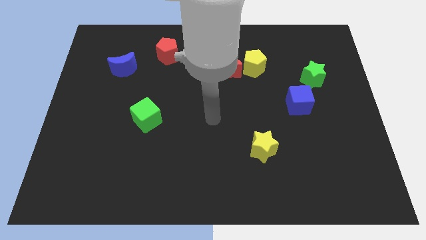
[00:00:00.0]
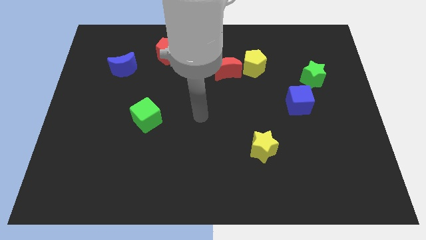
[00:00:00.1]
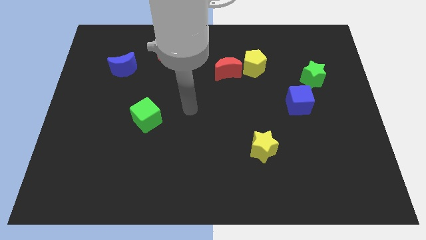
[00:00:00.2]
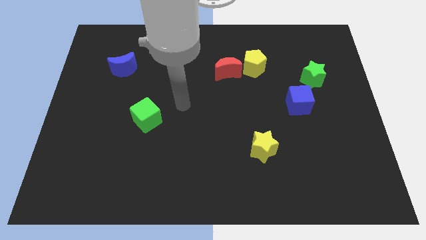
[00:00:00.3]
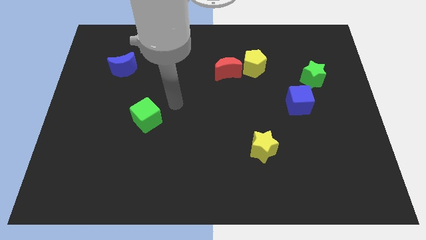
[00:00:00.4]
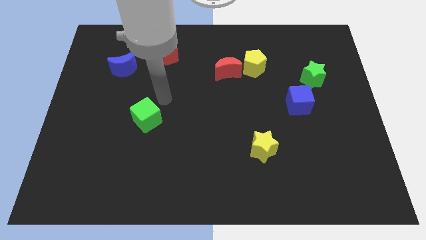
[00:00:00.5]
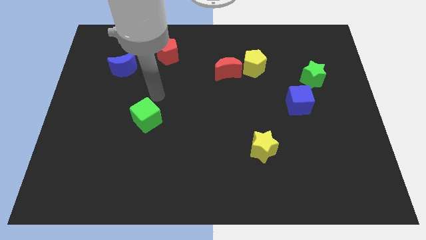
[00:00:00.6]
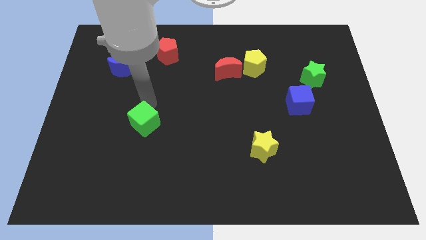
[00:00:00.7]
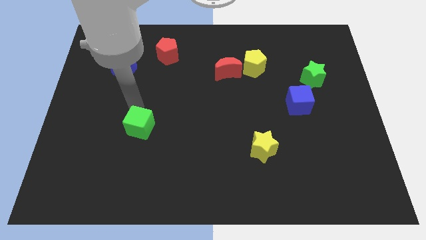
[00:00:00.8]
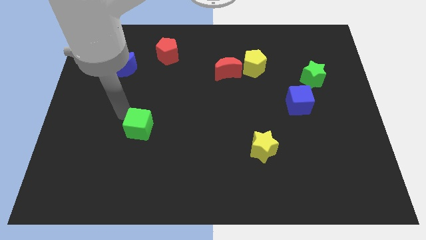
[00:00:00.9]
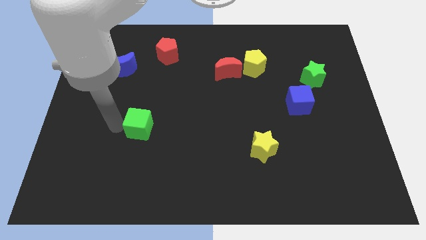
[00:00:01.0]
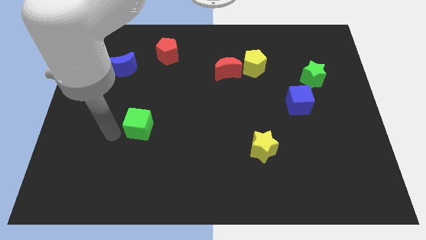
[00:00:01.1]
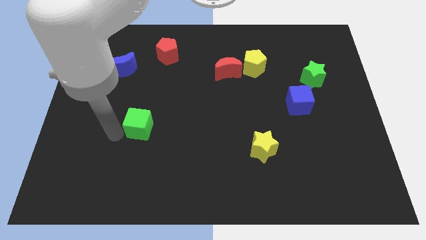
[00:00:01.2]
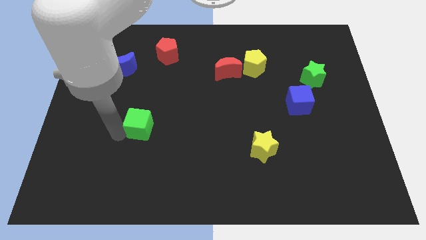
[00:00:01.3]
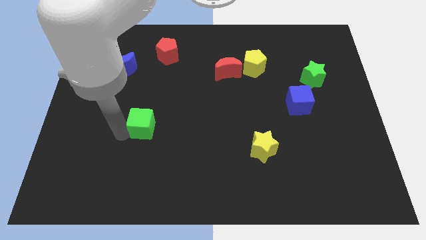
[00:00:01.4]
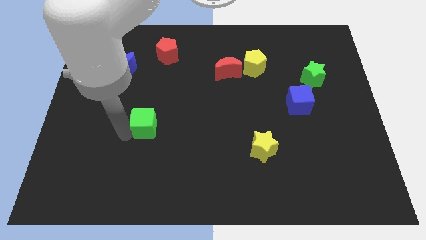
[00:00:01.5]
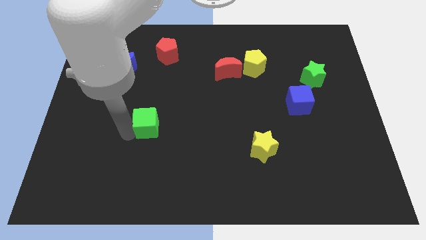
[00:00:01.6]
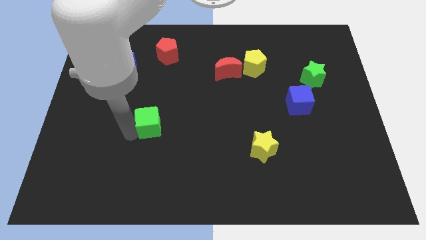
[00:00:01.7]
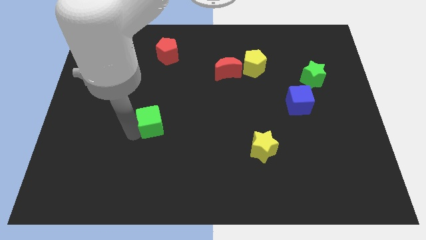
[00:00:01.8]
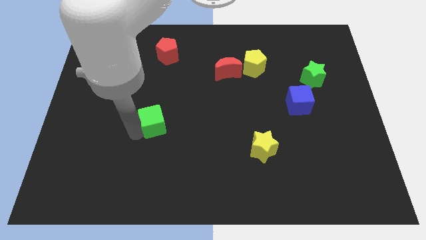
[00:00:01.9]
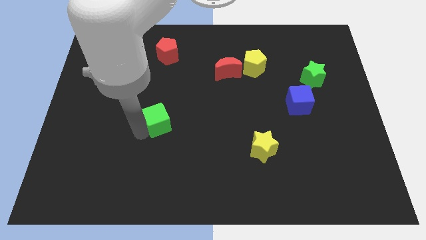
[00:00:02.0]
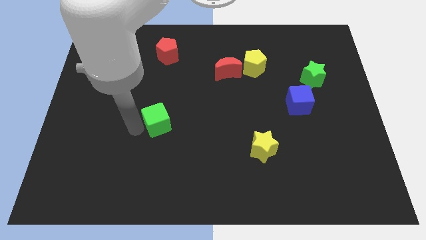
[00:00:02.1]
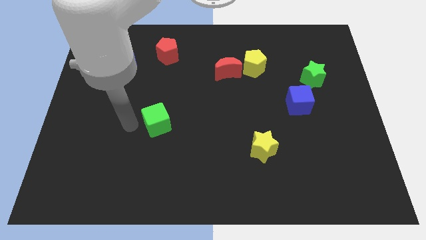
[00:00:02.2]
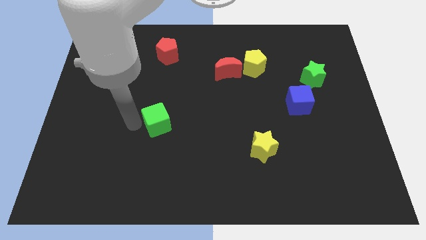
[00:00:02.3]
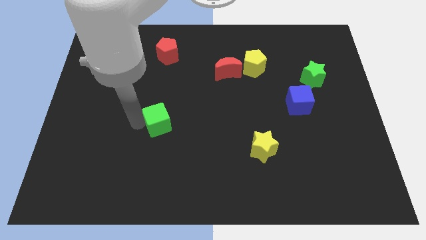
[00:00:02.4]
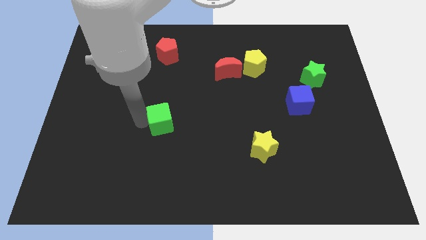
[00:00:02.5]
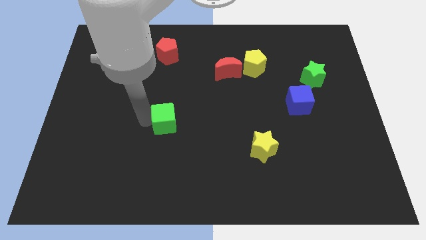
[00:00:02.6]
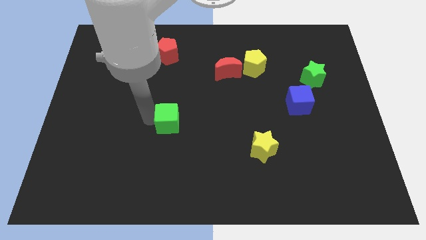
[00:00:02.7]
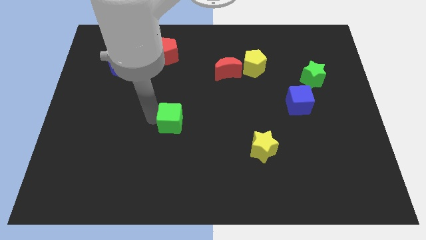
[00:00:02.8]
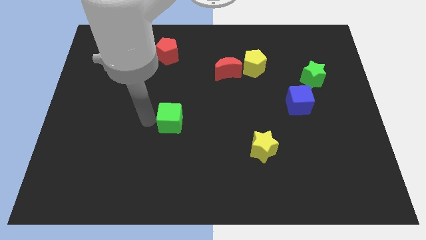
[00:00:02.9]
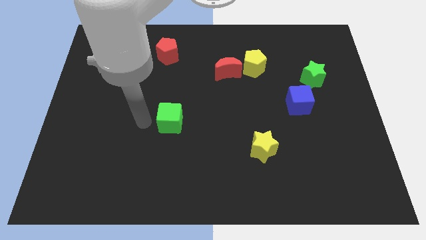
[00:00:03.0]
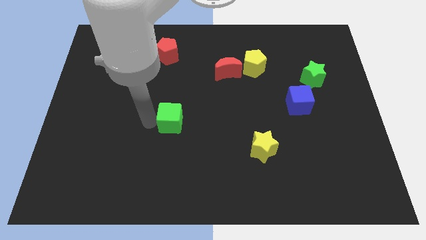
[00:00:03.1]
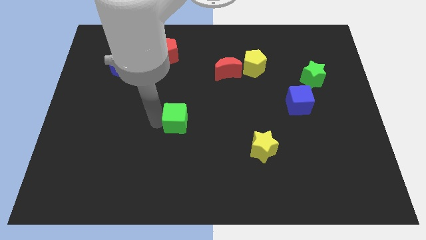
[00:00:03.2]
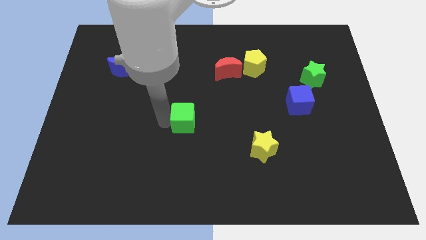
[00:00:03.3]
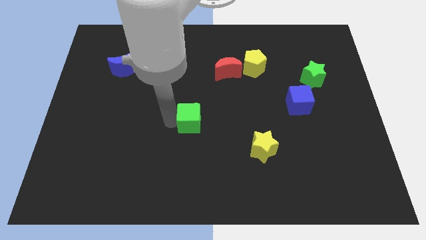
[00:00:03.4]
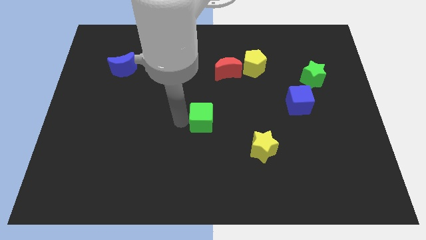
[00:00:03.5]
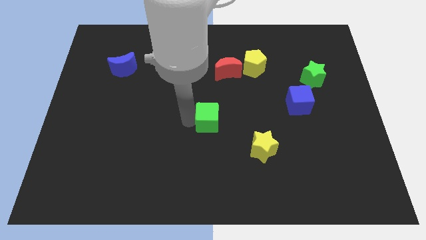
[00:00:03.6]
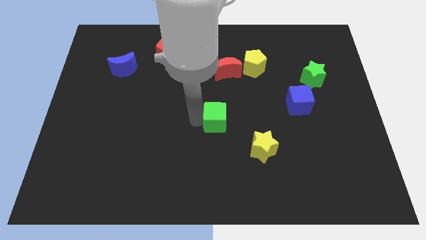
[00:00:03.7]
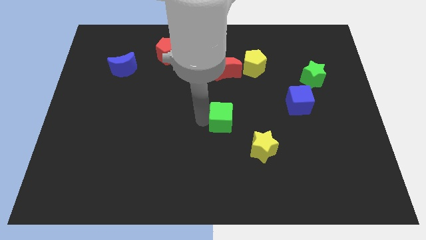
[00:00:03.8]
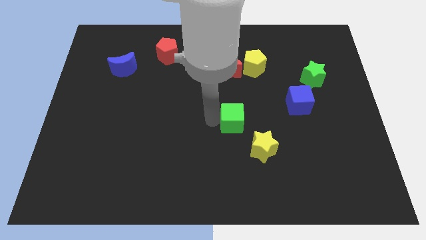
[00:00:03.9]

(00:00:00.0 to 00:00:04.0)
move the green cube right

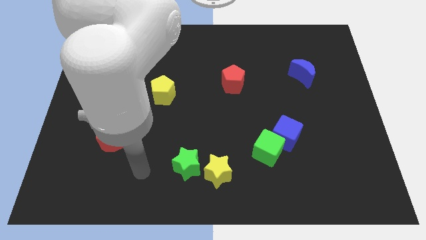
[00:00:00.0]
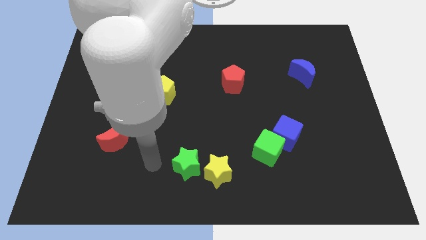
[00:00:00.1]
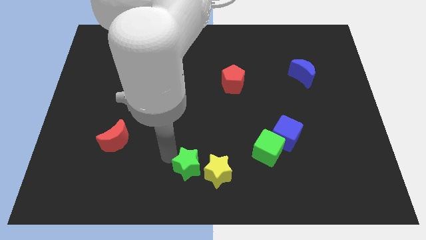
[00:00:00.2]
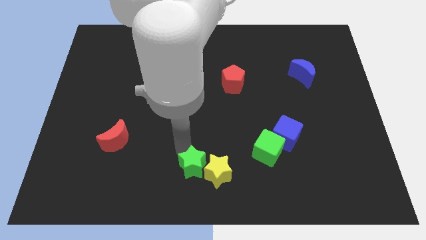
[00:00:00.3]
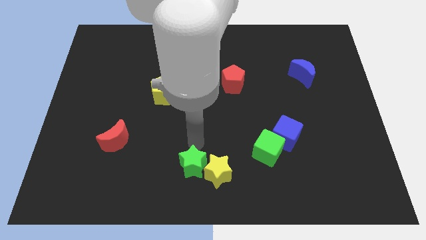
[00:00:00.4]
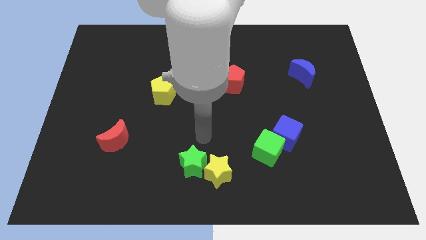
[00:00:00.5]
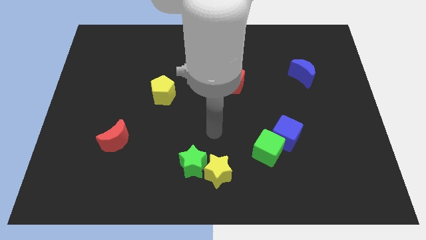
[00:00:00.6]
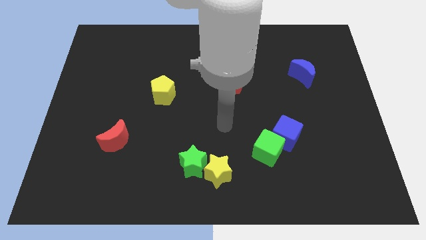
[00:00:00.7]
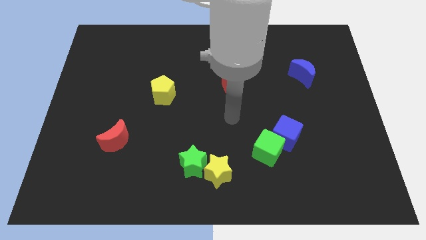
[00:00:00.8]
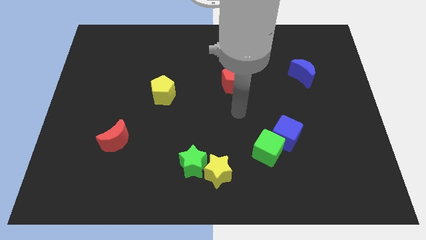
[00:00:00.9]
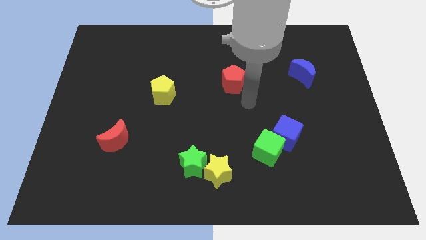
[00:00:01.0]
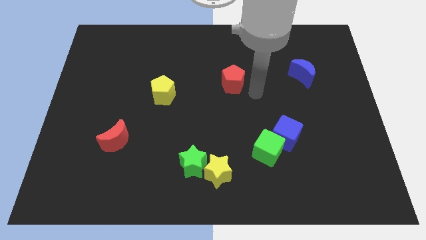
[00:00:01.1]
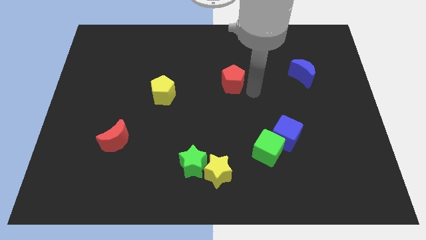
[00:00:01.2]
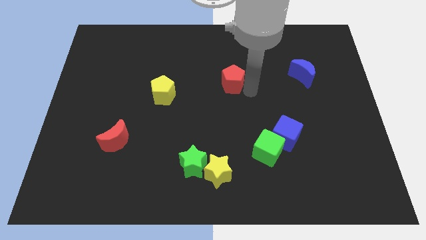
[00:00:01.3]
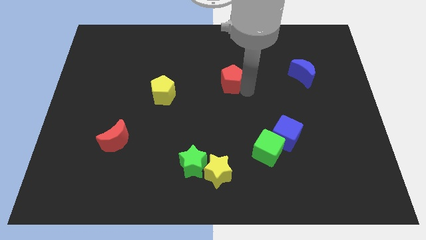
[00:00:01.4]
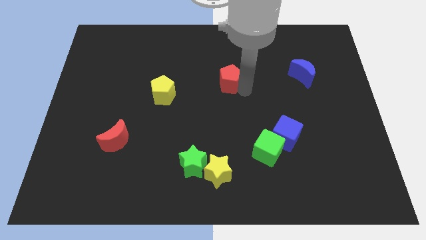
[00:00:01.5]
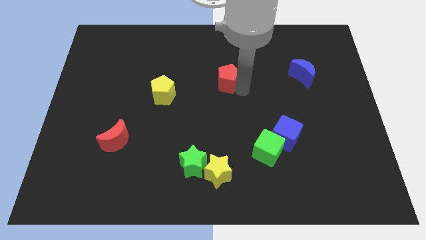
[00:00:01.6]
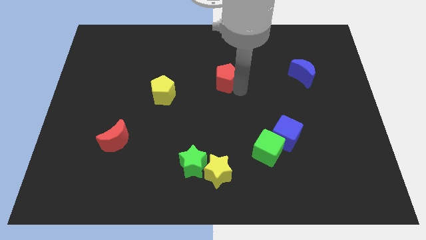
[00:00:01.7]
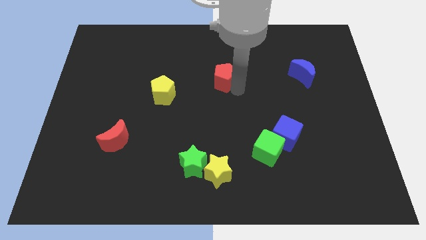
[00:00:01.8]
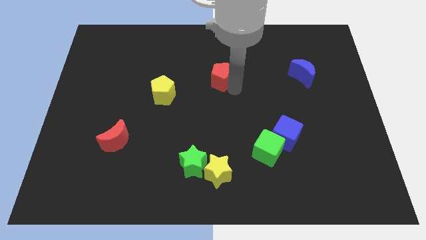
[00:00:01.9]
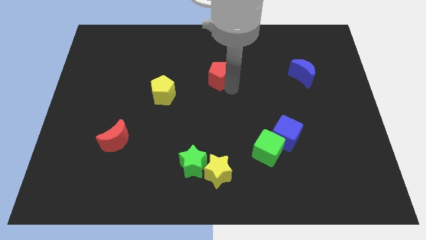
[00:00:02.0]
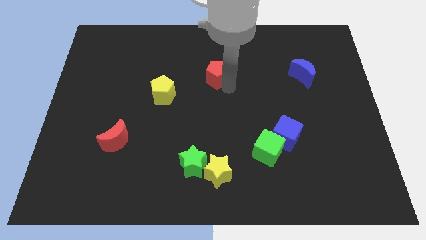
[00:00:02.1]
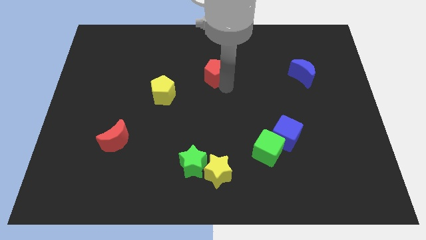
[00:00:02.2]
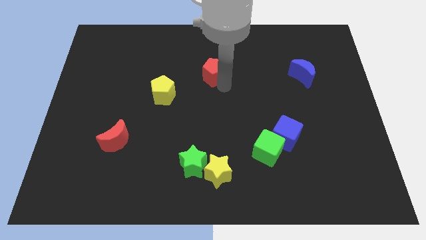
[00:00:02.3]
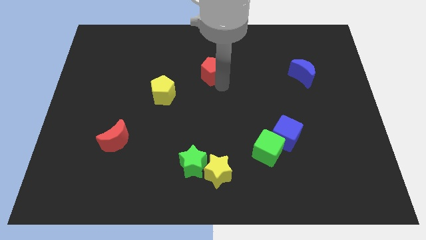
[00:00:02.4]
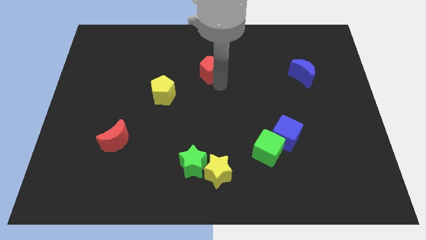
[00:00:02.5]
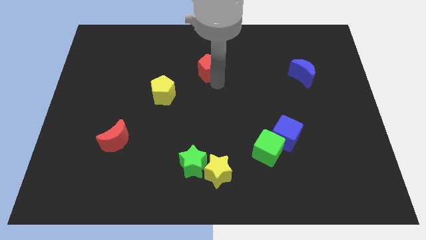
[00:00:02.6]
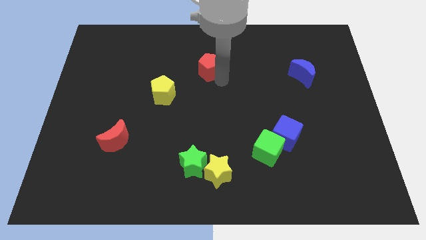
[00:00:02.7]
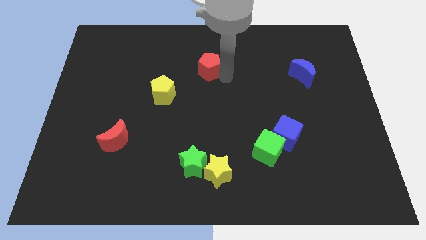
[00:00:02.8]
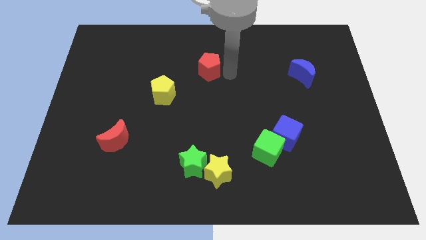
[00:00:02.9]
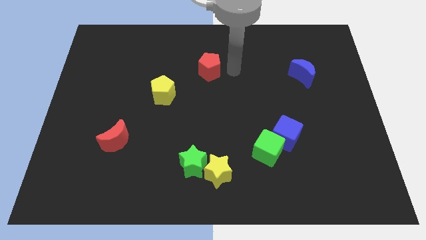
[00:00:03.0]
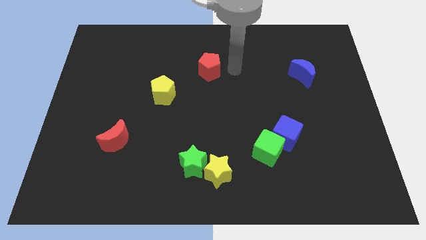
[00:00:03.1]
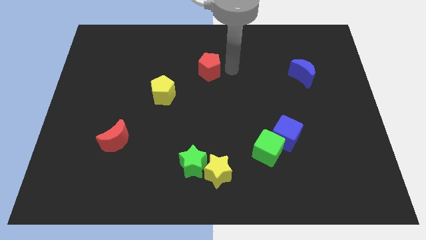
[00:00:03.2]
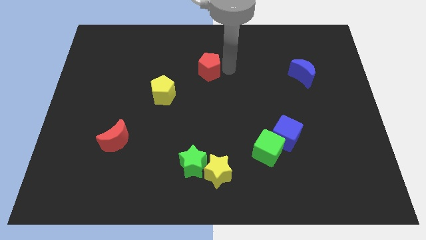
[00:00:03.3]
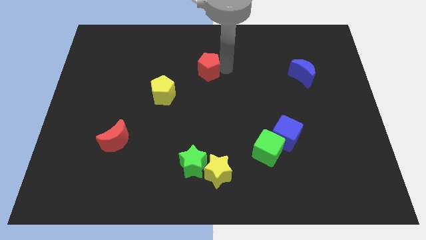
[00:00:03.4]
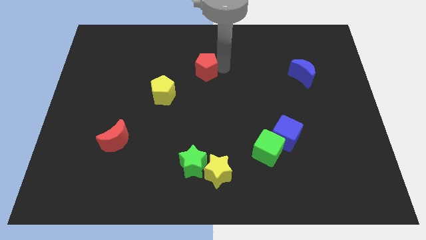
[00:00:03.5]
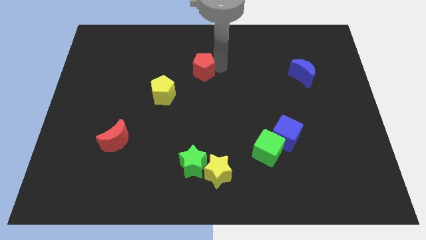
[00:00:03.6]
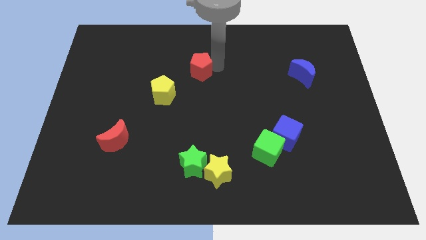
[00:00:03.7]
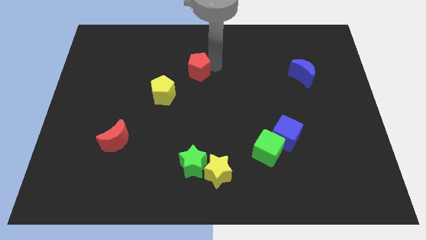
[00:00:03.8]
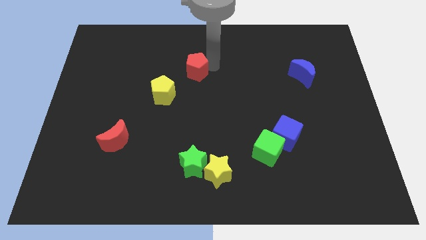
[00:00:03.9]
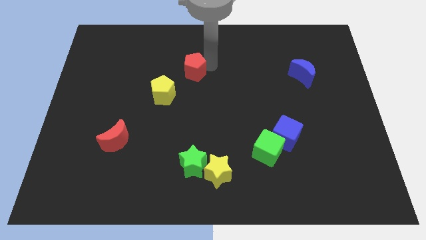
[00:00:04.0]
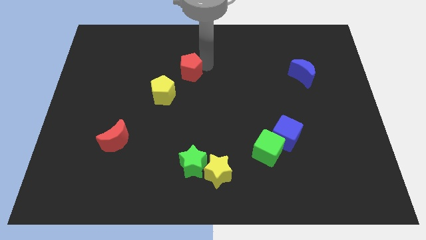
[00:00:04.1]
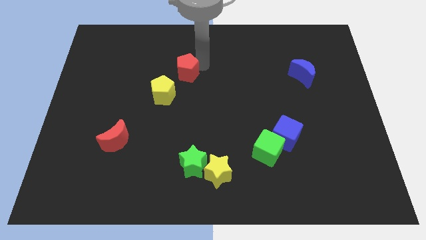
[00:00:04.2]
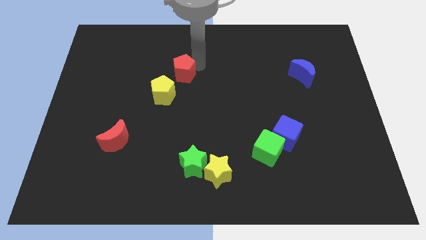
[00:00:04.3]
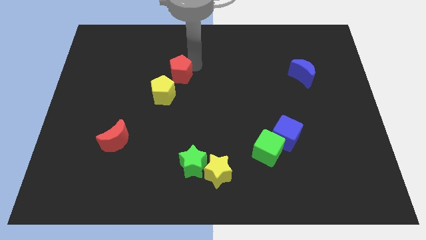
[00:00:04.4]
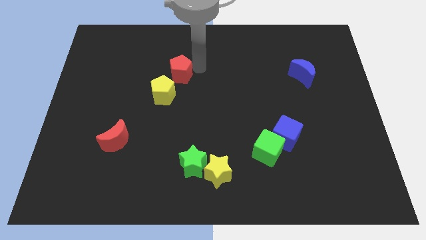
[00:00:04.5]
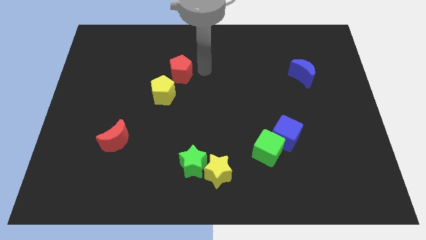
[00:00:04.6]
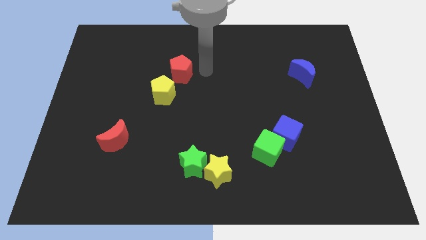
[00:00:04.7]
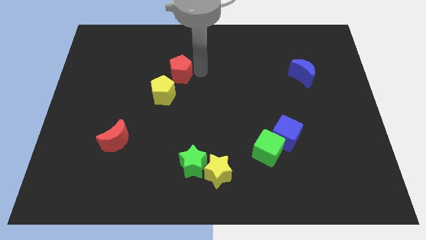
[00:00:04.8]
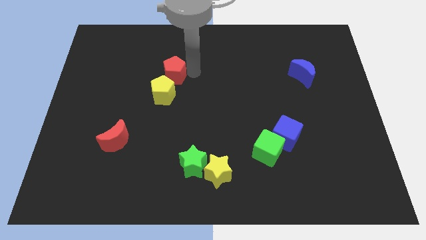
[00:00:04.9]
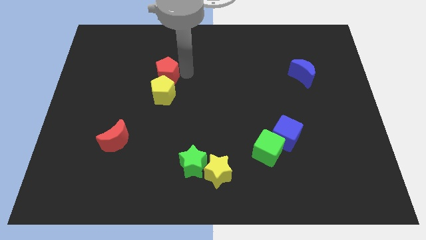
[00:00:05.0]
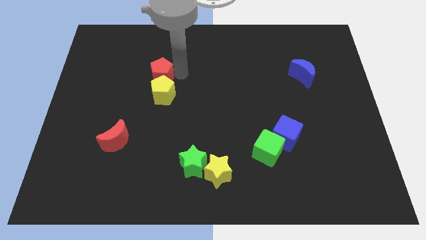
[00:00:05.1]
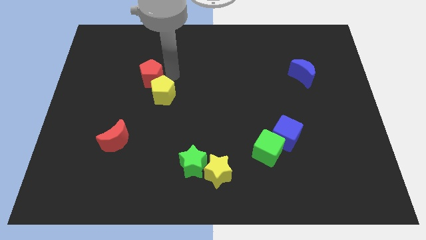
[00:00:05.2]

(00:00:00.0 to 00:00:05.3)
slide the red pentagon to the left
